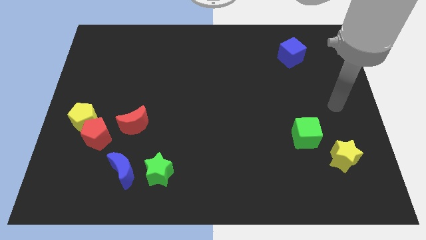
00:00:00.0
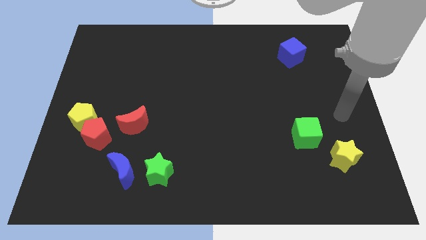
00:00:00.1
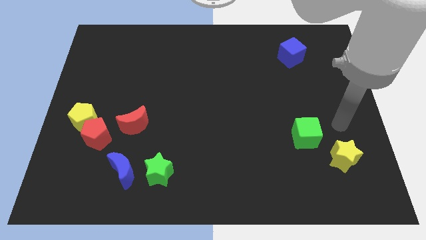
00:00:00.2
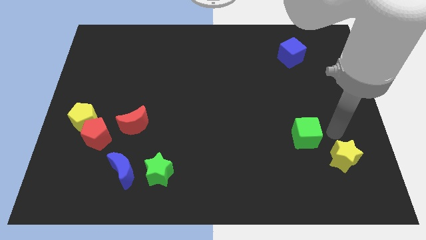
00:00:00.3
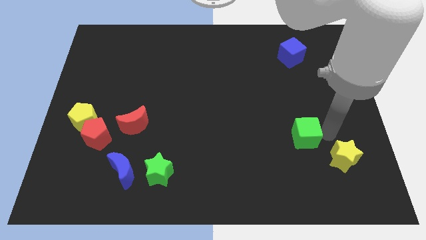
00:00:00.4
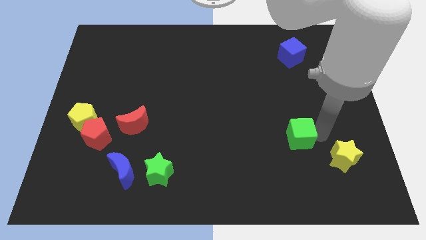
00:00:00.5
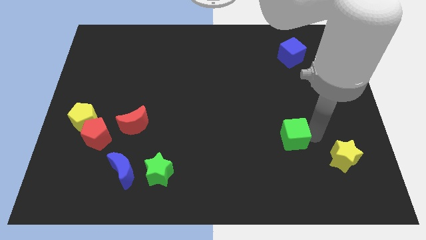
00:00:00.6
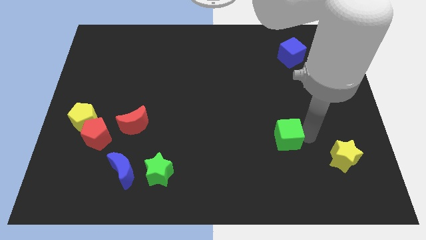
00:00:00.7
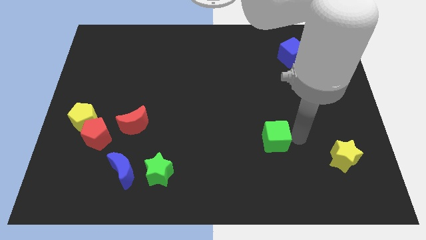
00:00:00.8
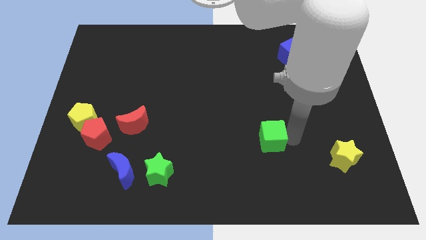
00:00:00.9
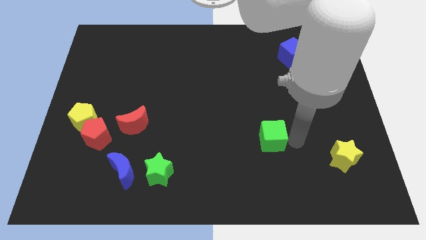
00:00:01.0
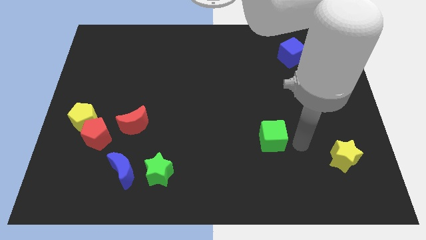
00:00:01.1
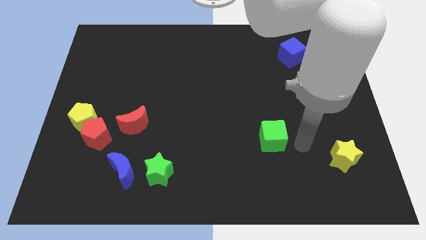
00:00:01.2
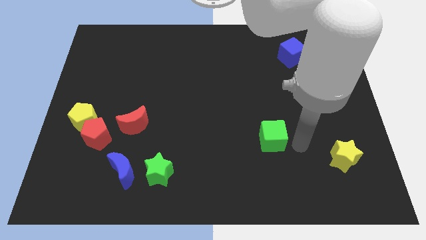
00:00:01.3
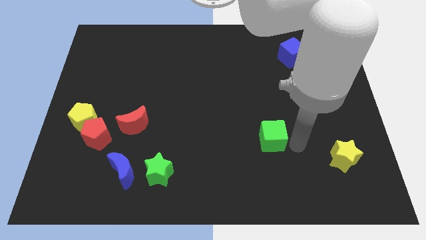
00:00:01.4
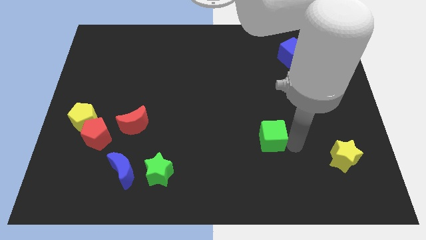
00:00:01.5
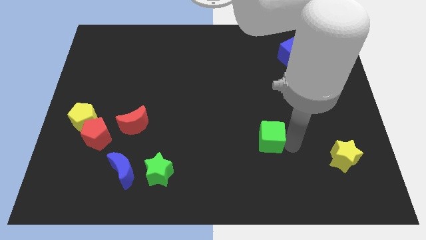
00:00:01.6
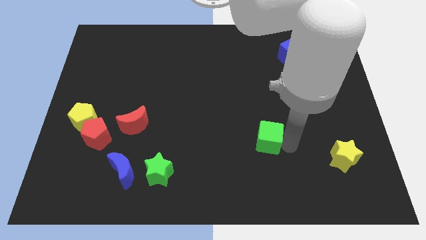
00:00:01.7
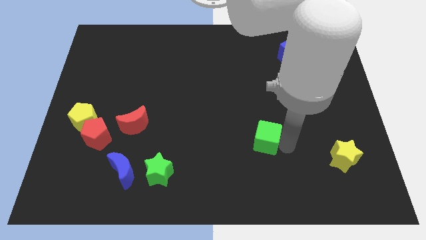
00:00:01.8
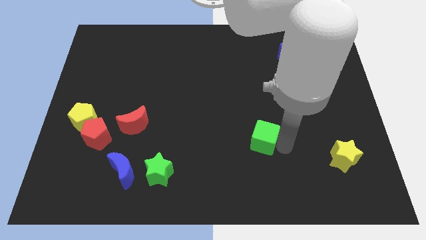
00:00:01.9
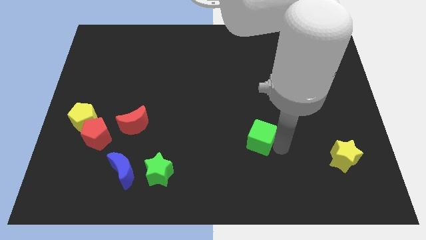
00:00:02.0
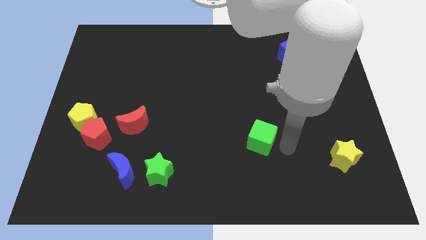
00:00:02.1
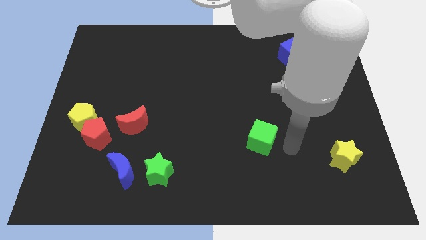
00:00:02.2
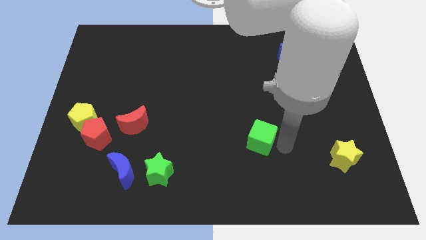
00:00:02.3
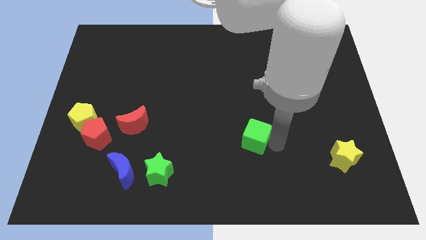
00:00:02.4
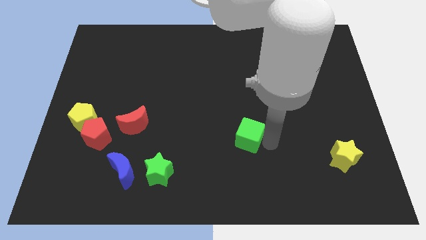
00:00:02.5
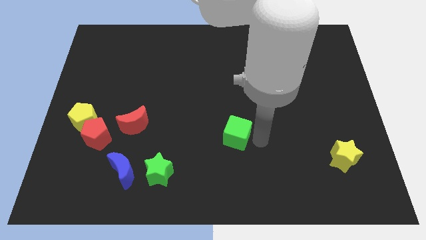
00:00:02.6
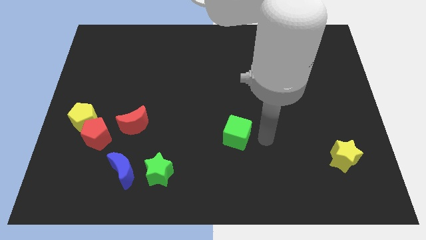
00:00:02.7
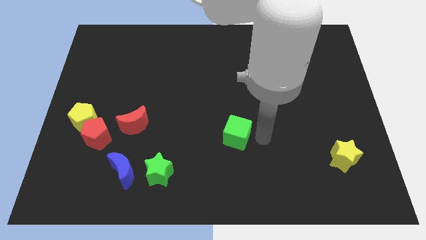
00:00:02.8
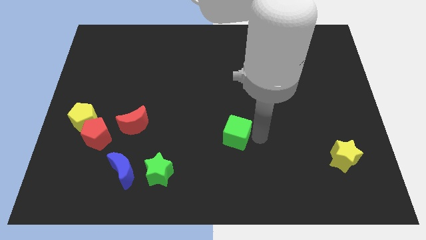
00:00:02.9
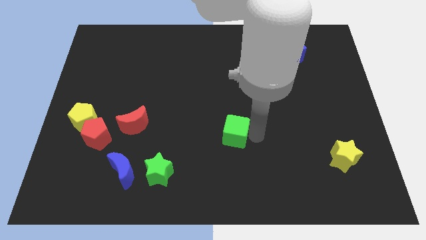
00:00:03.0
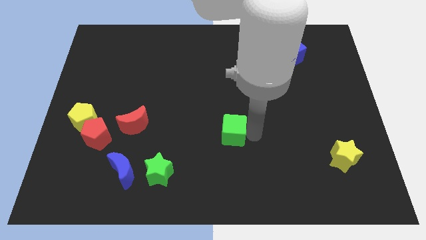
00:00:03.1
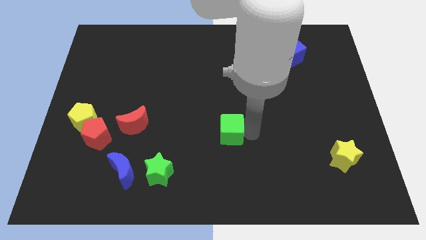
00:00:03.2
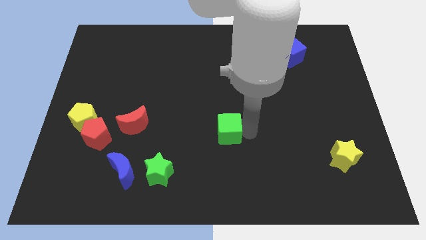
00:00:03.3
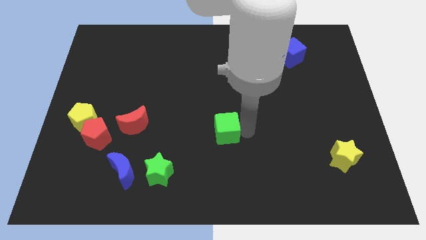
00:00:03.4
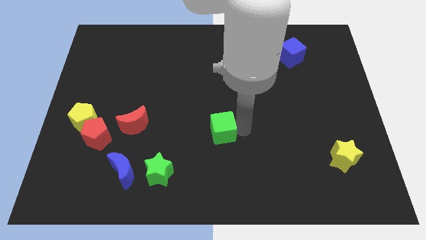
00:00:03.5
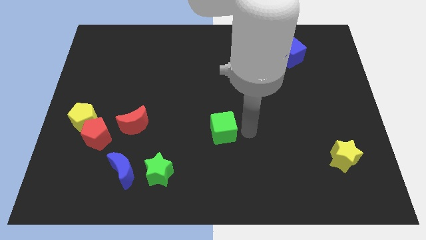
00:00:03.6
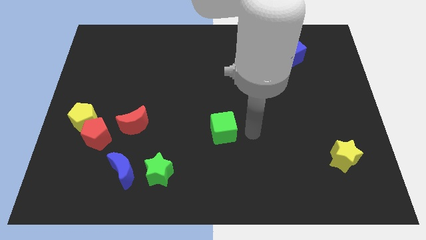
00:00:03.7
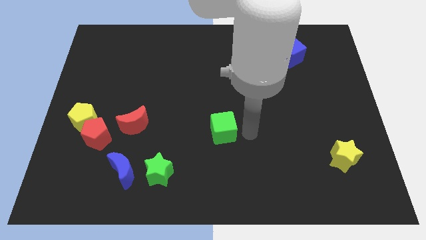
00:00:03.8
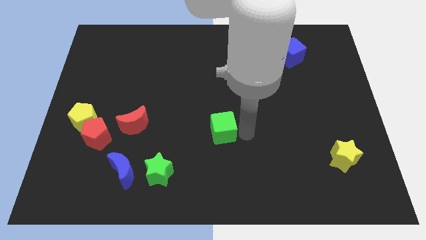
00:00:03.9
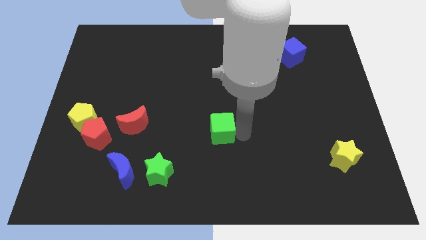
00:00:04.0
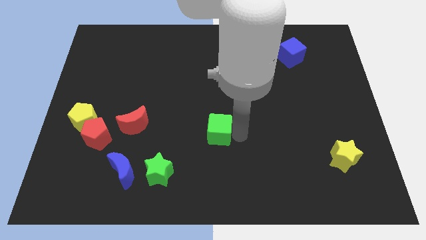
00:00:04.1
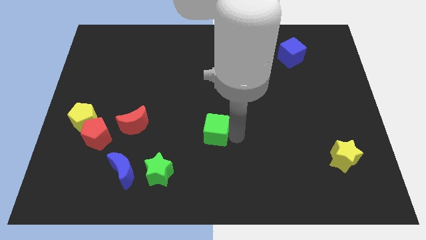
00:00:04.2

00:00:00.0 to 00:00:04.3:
slide the green cube left

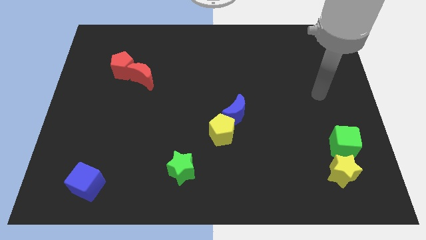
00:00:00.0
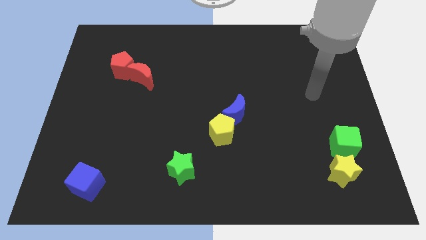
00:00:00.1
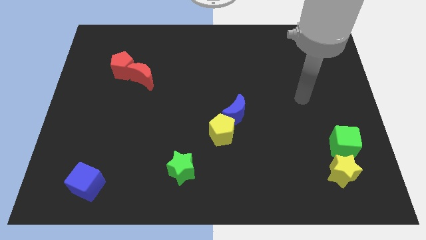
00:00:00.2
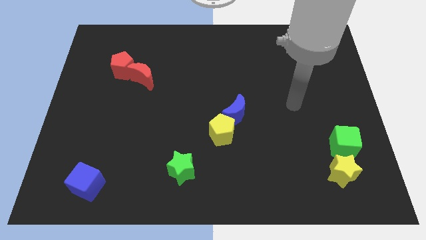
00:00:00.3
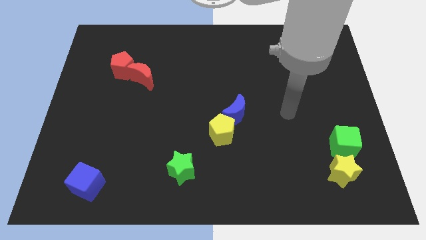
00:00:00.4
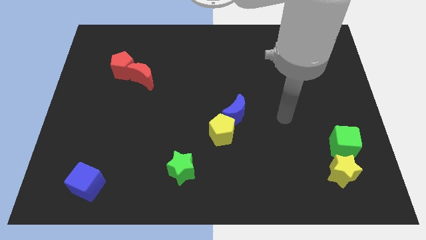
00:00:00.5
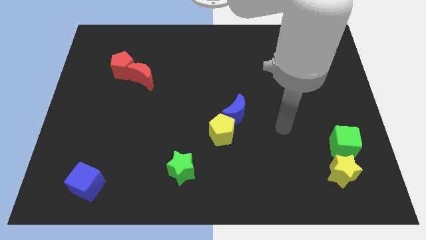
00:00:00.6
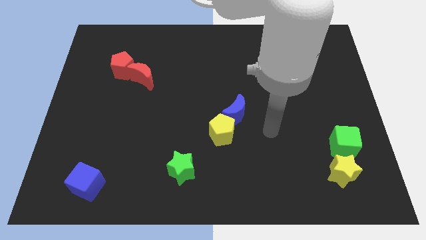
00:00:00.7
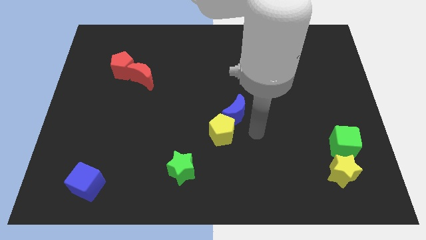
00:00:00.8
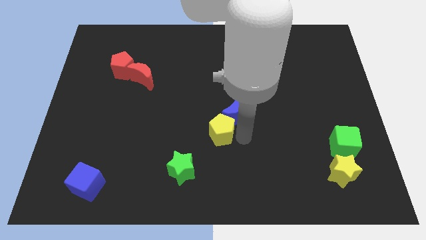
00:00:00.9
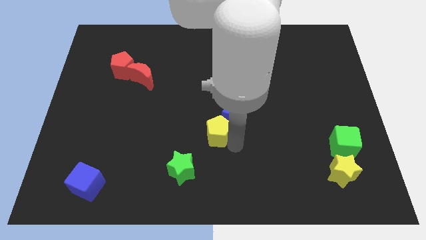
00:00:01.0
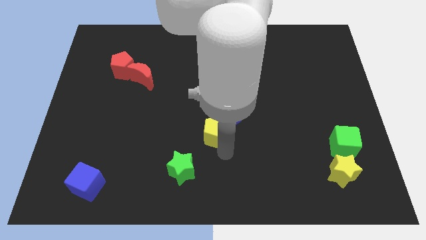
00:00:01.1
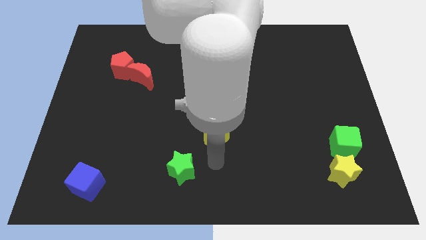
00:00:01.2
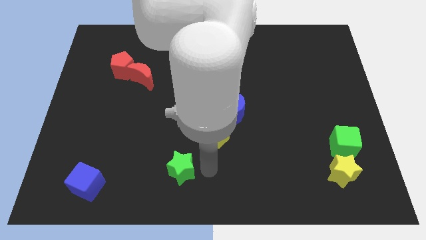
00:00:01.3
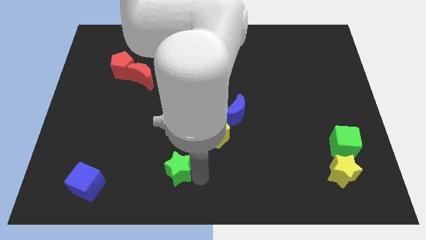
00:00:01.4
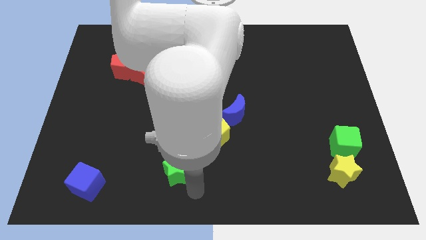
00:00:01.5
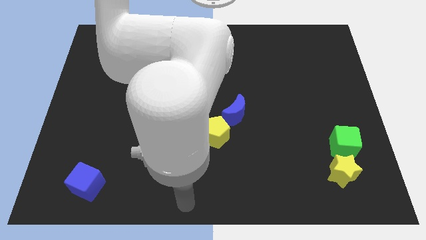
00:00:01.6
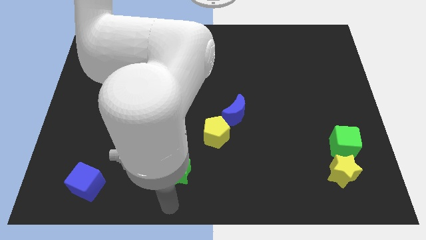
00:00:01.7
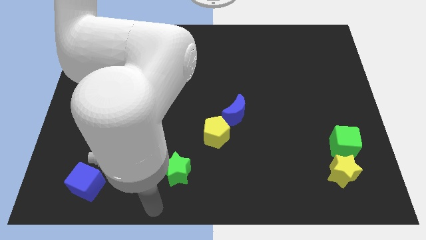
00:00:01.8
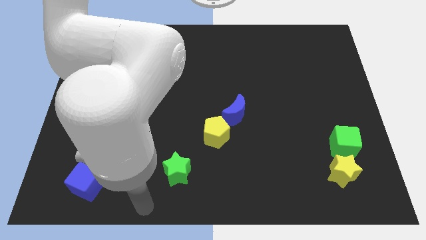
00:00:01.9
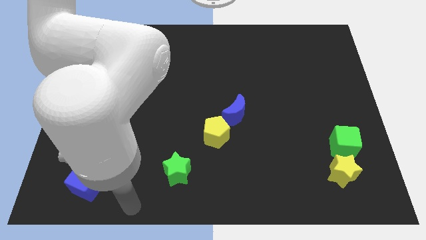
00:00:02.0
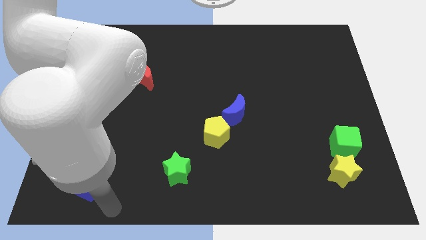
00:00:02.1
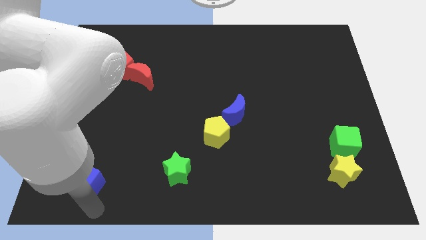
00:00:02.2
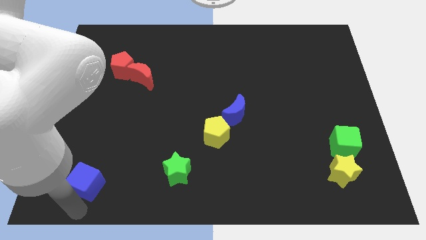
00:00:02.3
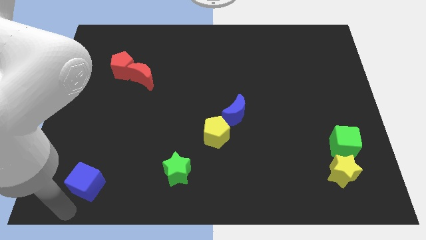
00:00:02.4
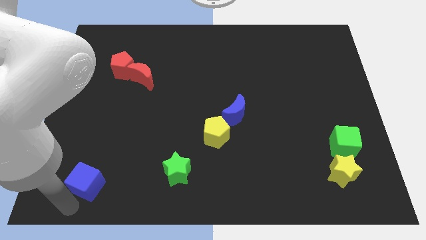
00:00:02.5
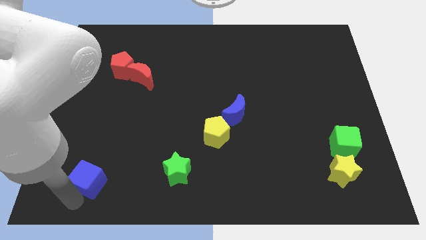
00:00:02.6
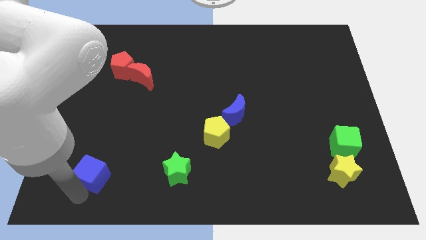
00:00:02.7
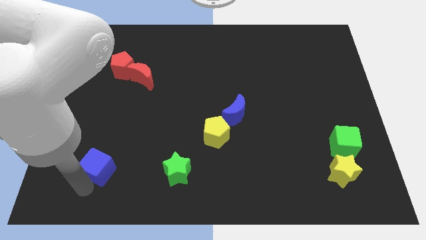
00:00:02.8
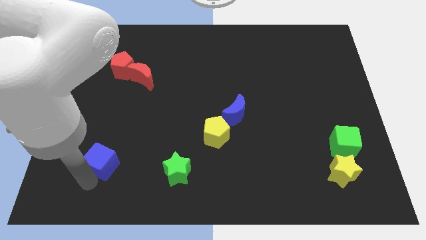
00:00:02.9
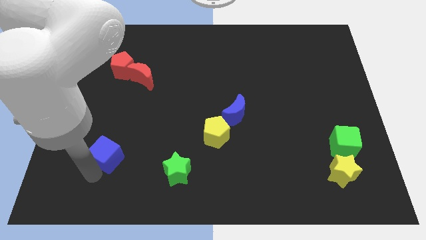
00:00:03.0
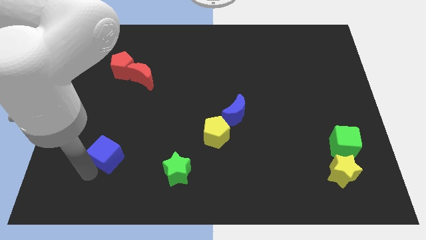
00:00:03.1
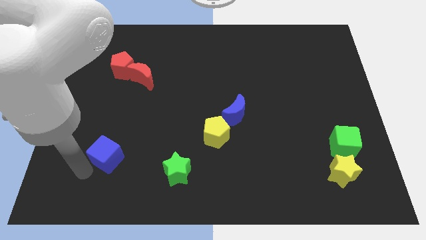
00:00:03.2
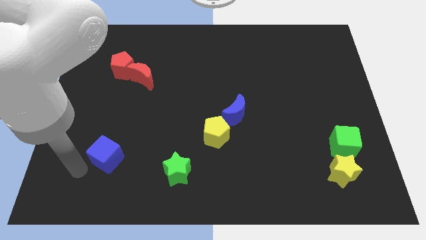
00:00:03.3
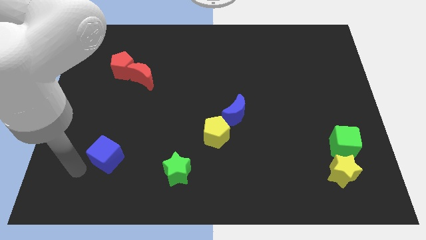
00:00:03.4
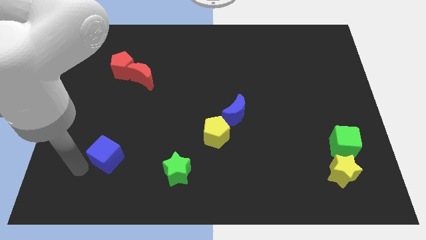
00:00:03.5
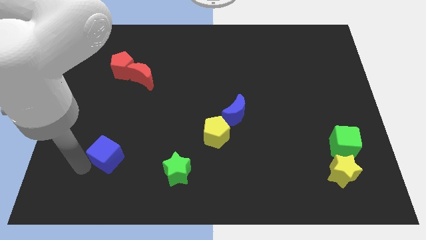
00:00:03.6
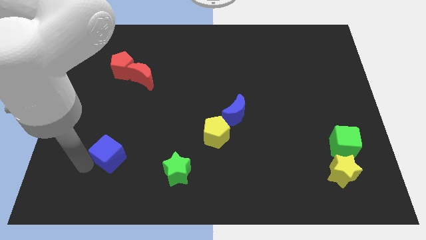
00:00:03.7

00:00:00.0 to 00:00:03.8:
push the blue cube a little up and right
